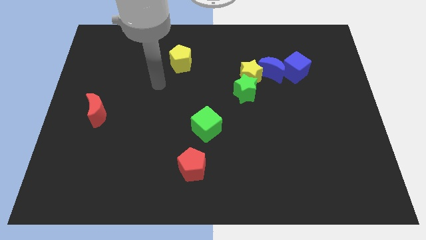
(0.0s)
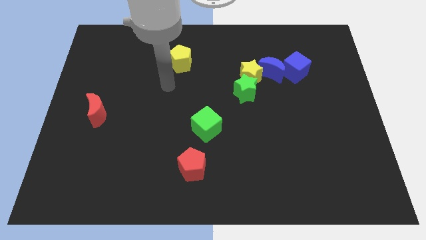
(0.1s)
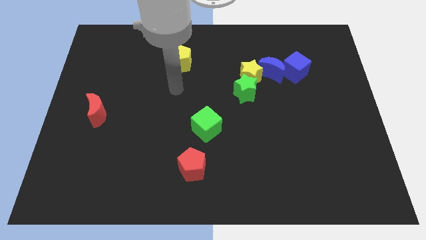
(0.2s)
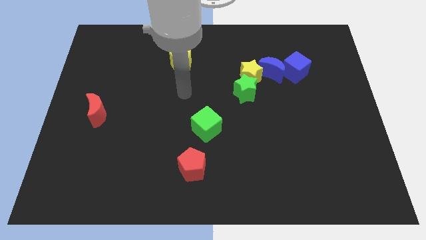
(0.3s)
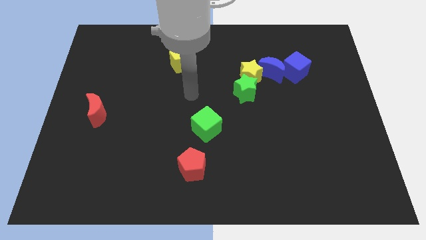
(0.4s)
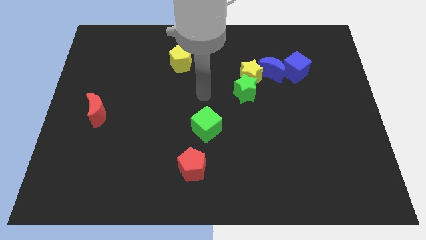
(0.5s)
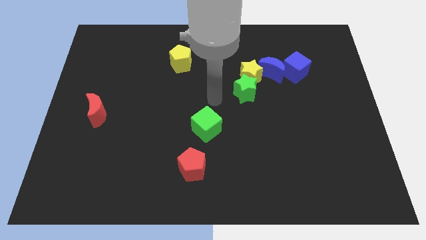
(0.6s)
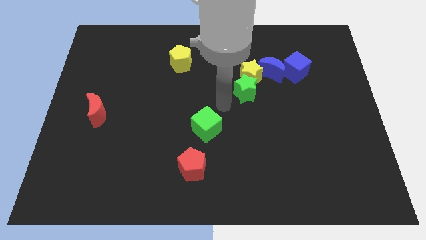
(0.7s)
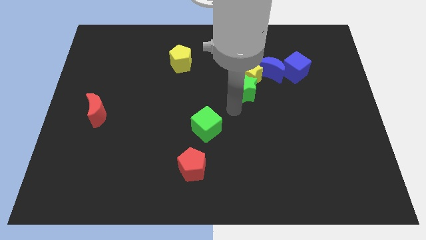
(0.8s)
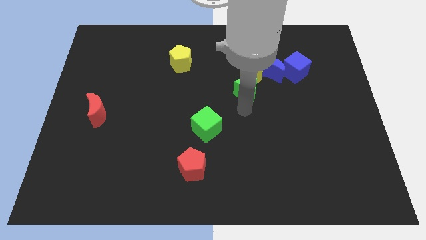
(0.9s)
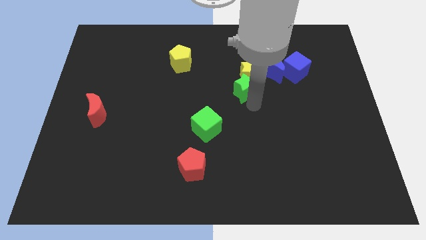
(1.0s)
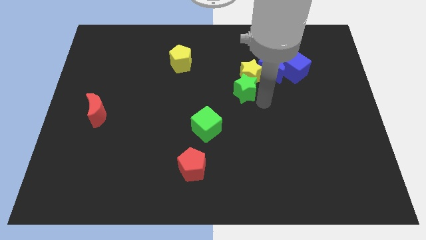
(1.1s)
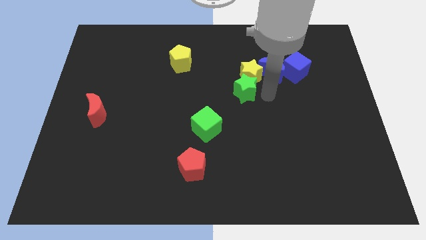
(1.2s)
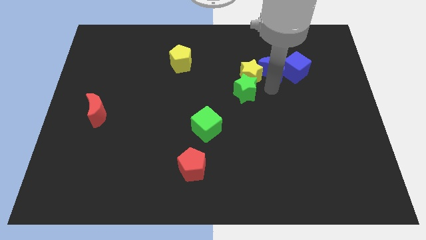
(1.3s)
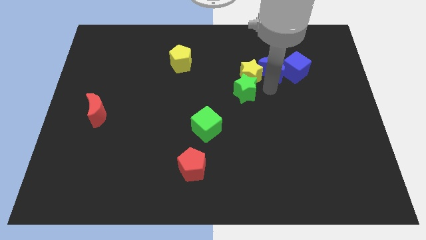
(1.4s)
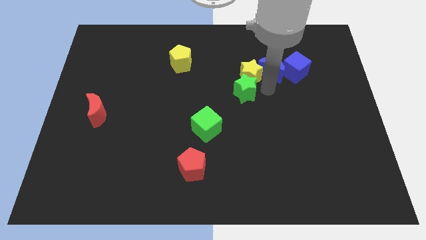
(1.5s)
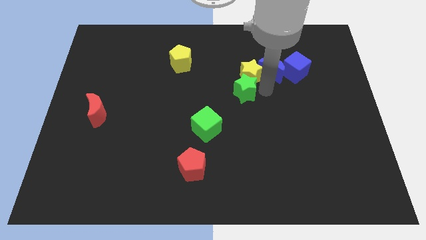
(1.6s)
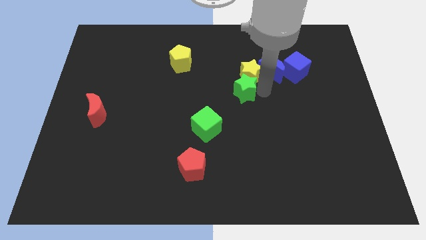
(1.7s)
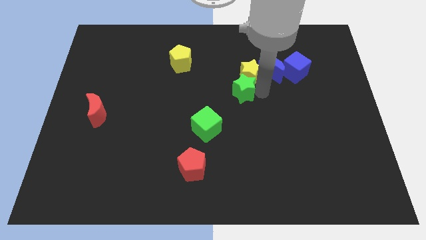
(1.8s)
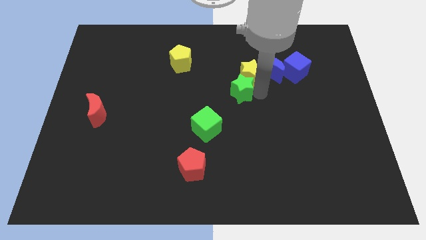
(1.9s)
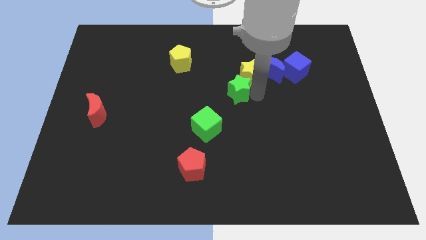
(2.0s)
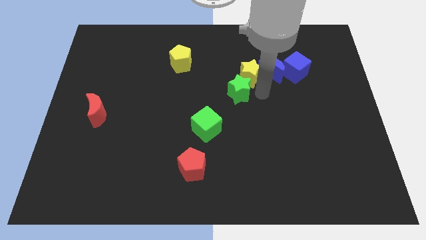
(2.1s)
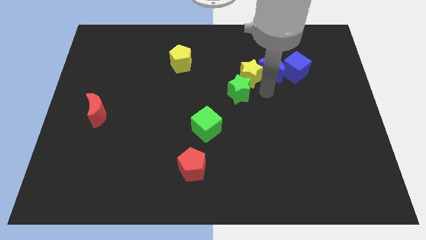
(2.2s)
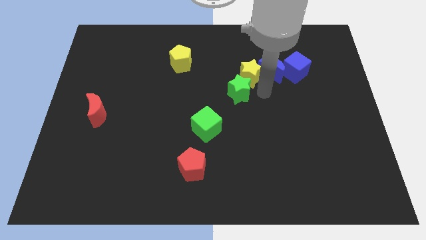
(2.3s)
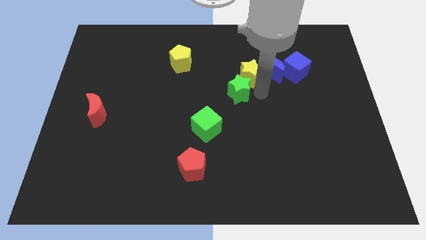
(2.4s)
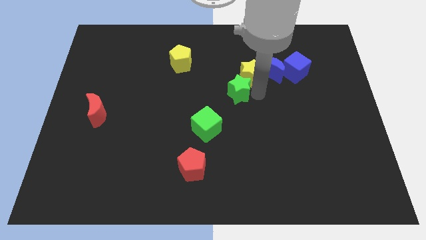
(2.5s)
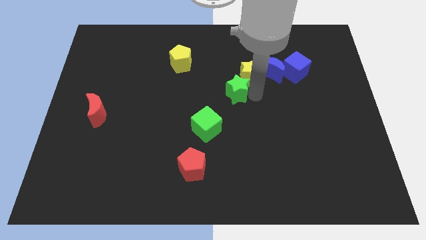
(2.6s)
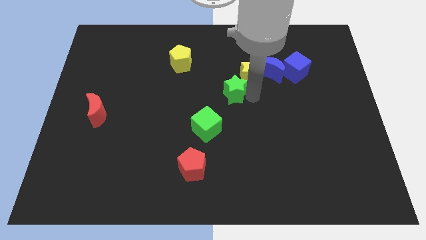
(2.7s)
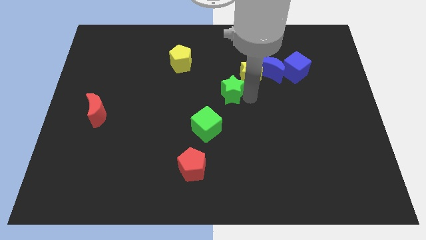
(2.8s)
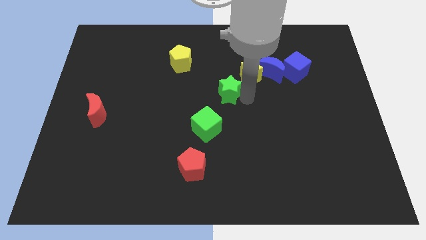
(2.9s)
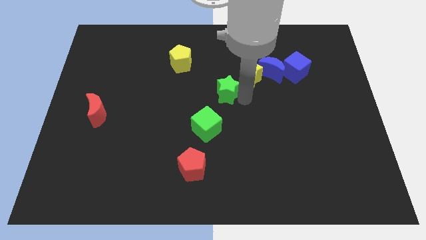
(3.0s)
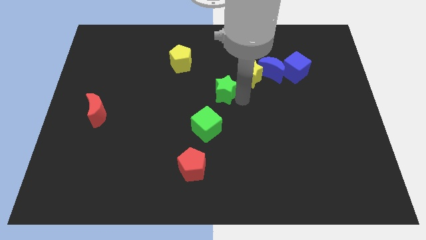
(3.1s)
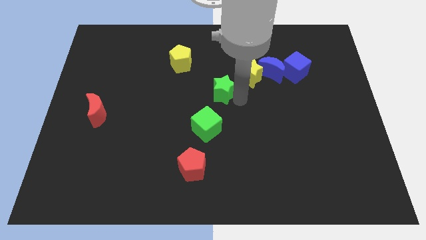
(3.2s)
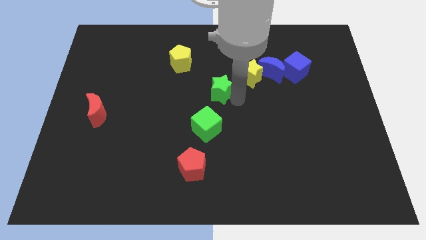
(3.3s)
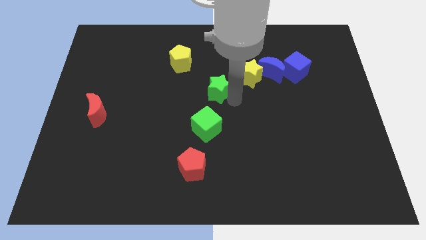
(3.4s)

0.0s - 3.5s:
push the green star left a little

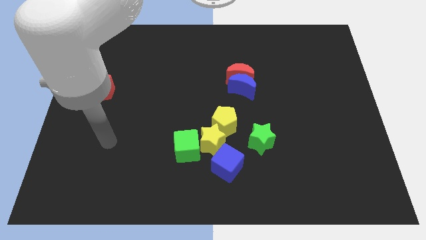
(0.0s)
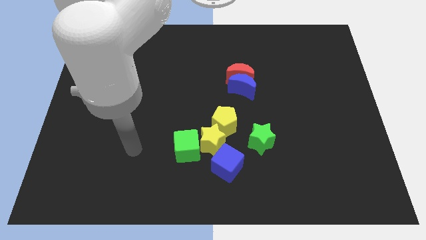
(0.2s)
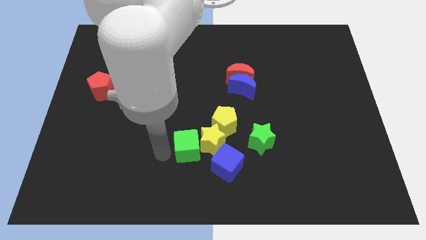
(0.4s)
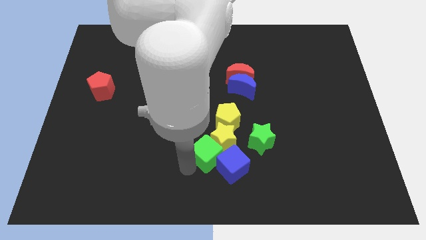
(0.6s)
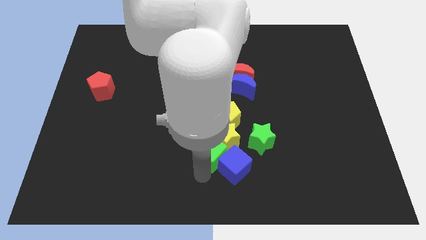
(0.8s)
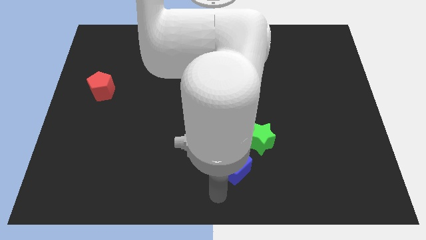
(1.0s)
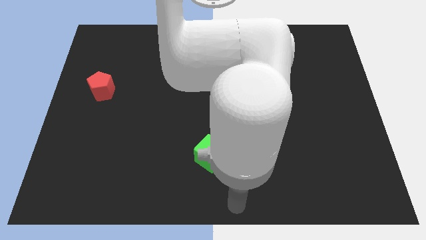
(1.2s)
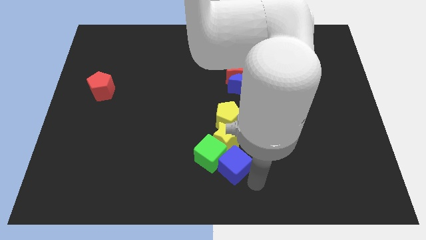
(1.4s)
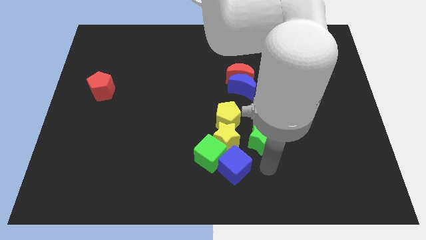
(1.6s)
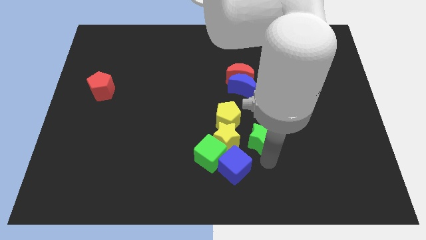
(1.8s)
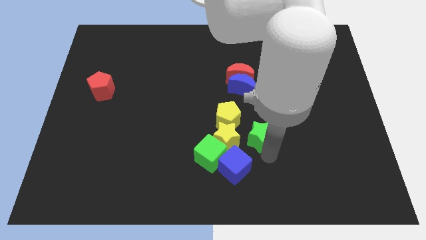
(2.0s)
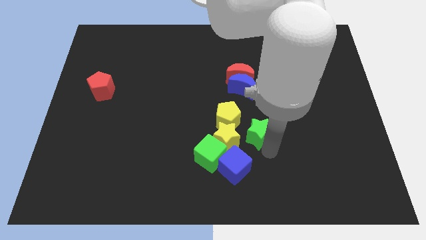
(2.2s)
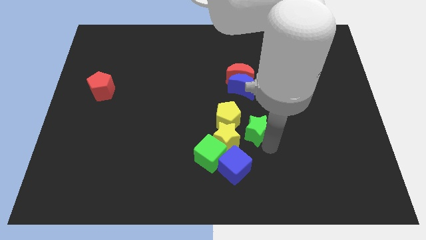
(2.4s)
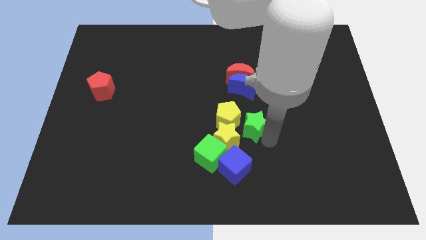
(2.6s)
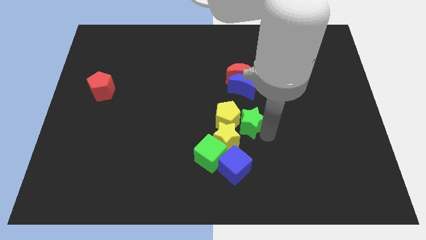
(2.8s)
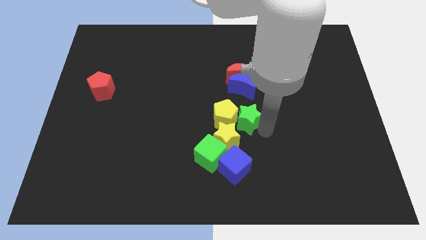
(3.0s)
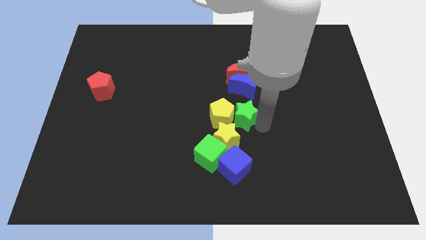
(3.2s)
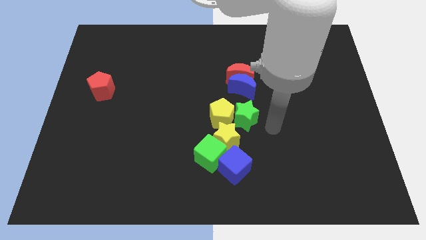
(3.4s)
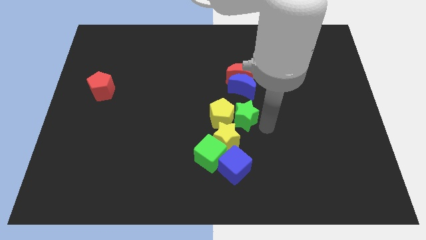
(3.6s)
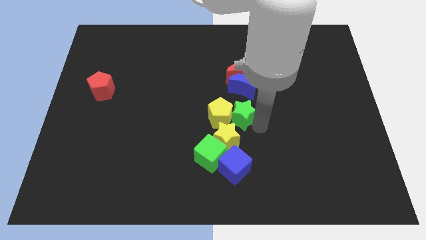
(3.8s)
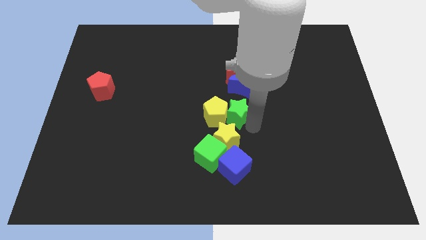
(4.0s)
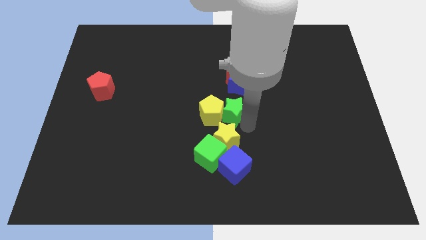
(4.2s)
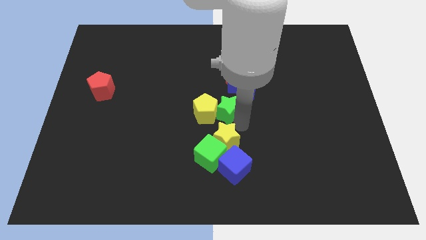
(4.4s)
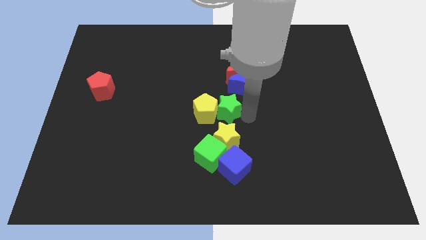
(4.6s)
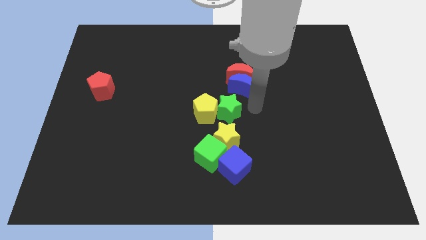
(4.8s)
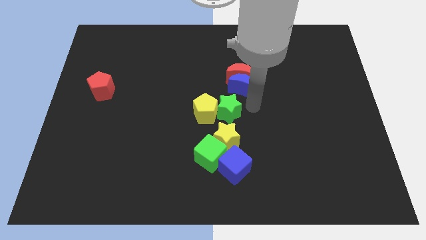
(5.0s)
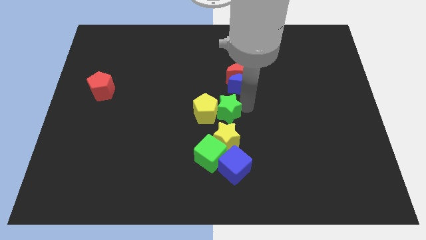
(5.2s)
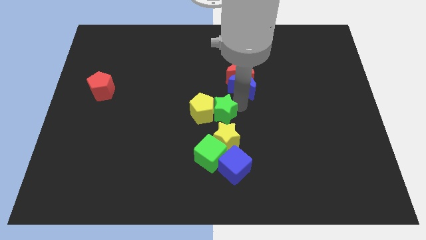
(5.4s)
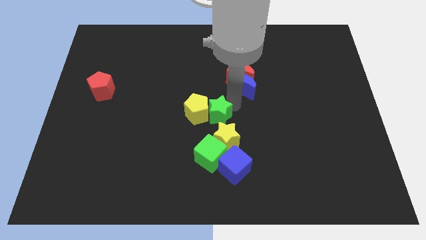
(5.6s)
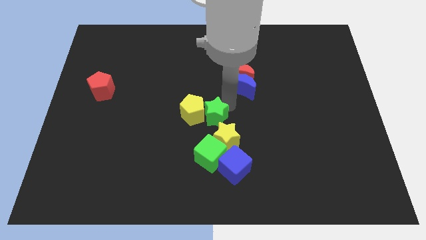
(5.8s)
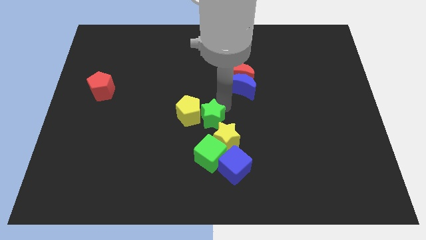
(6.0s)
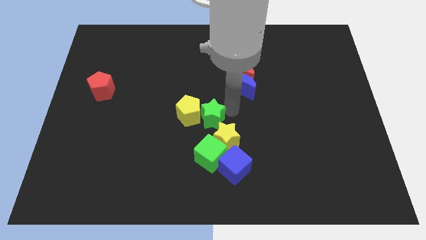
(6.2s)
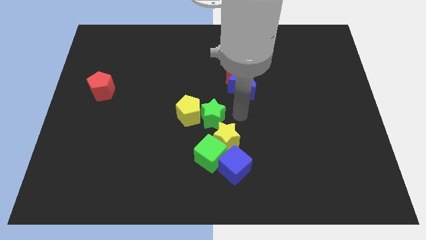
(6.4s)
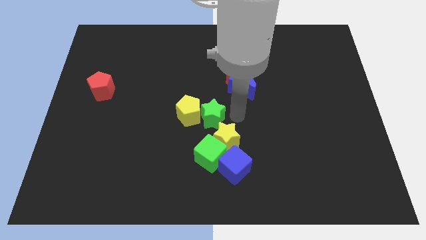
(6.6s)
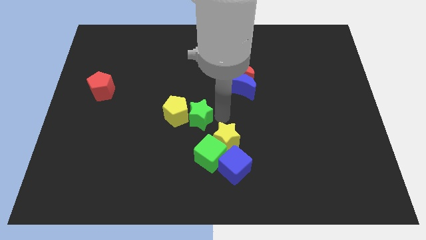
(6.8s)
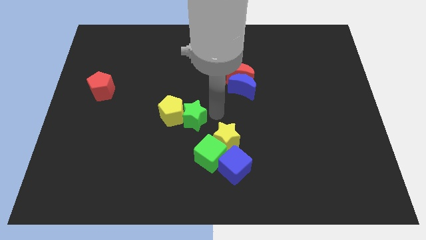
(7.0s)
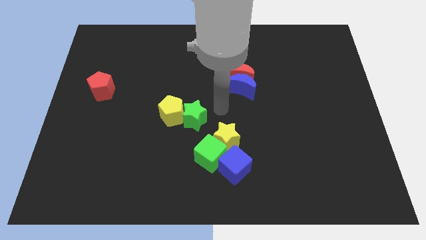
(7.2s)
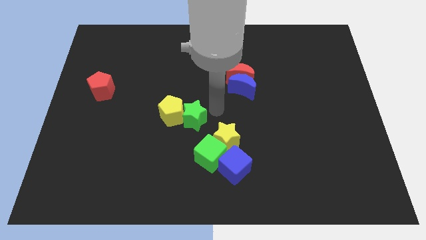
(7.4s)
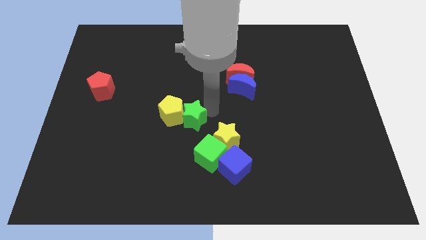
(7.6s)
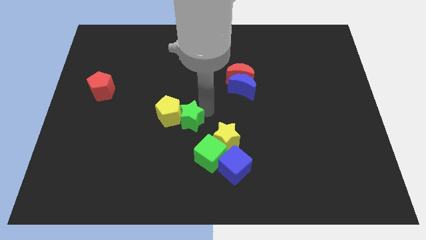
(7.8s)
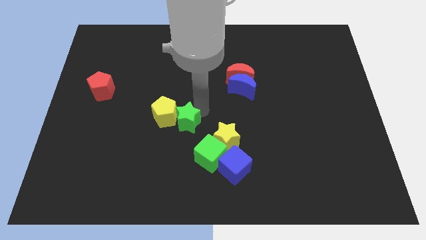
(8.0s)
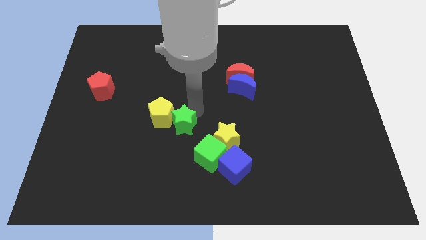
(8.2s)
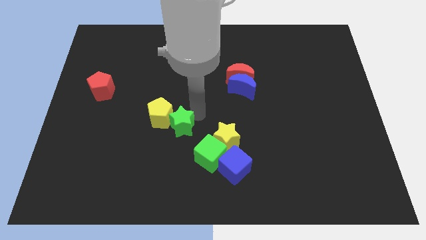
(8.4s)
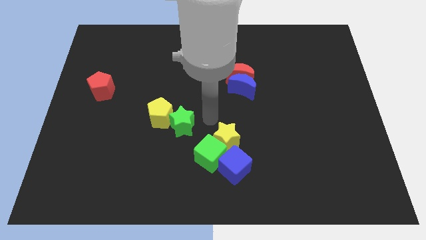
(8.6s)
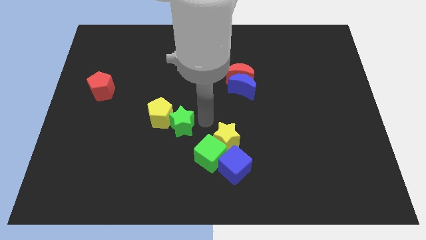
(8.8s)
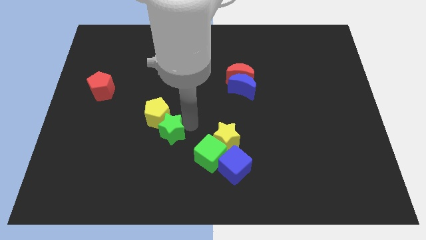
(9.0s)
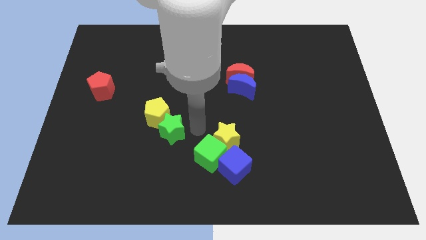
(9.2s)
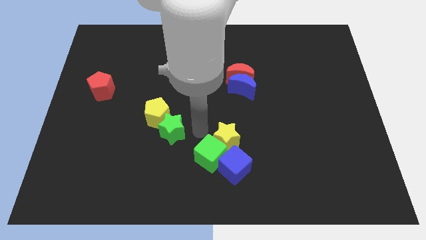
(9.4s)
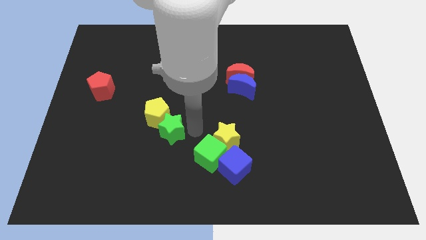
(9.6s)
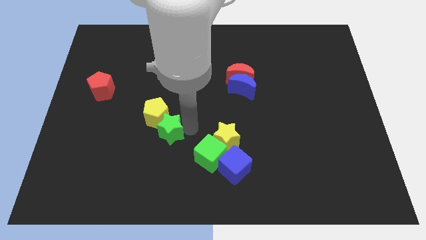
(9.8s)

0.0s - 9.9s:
push the green star left
